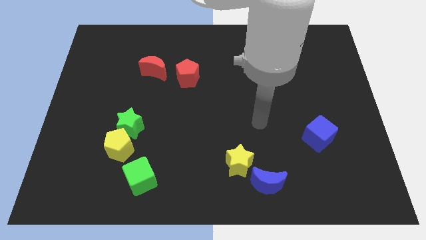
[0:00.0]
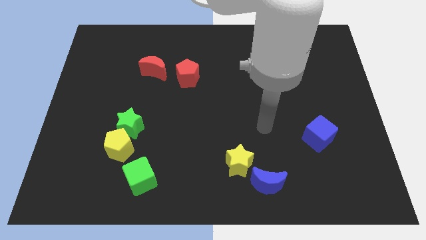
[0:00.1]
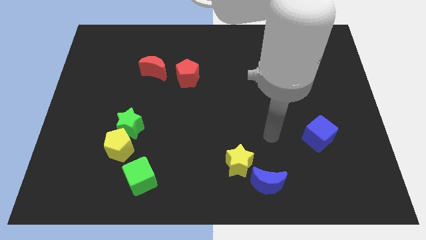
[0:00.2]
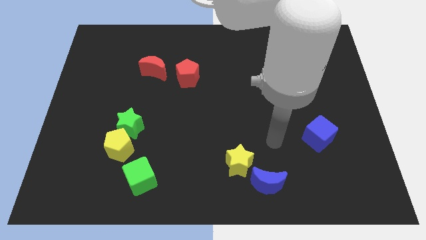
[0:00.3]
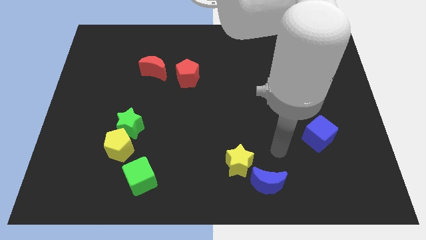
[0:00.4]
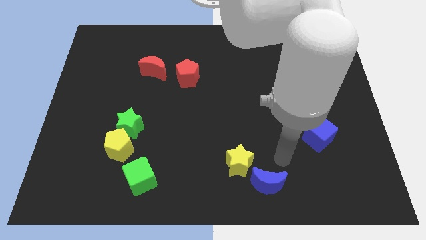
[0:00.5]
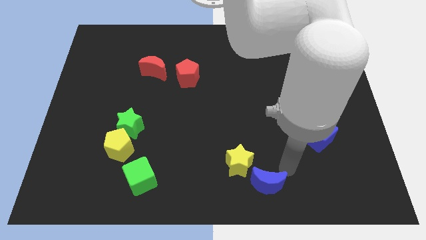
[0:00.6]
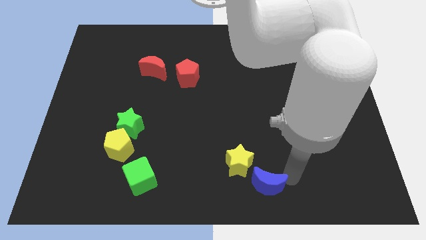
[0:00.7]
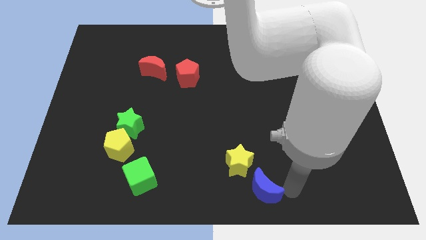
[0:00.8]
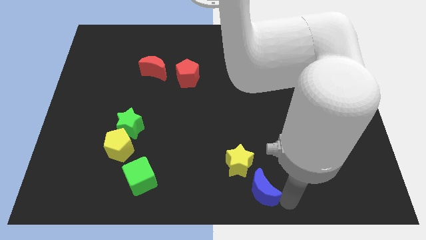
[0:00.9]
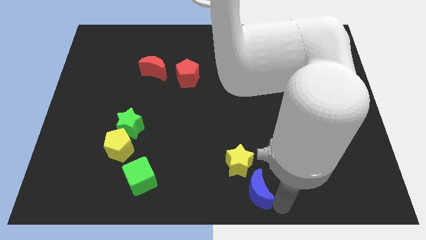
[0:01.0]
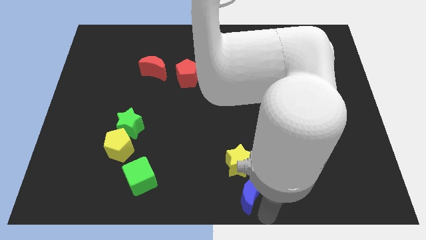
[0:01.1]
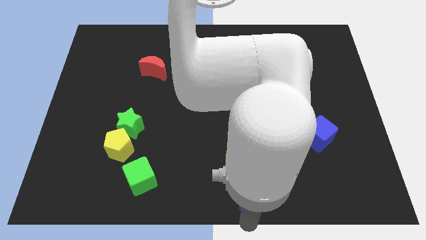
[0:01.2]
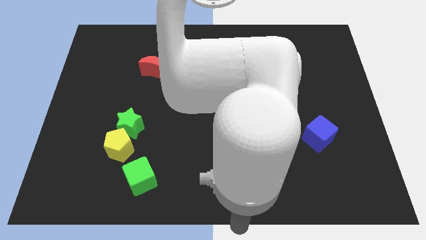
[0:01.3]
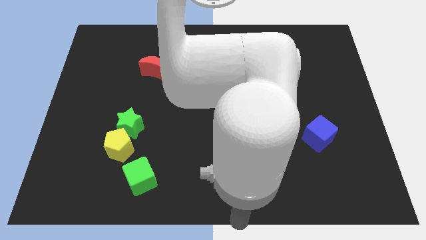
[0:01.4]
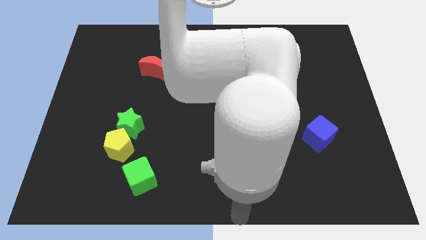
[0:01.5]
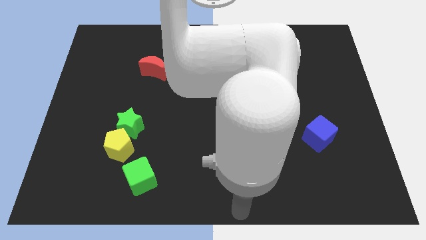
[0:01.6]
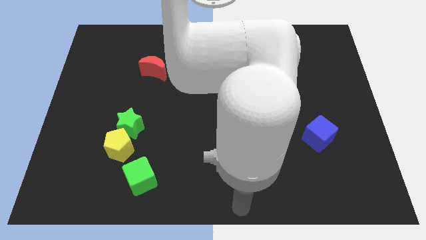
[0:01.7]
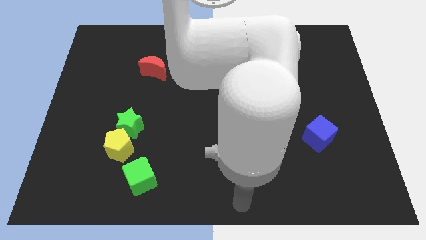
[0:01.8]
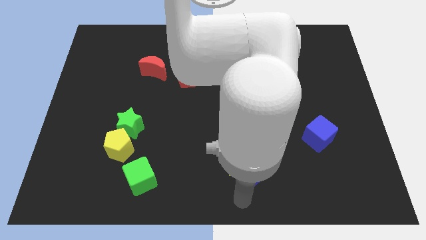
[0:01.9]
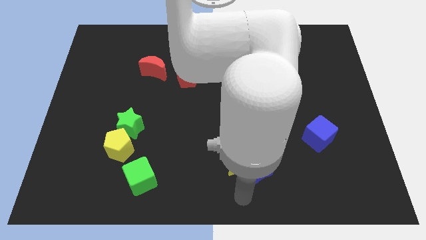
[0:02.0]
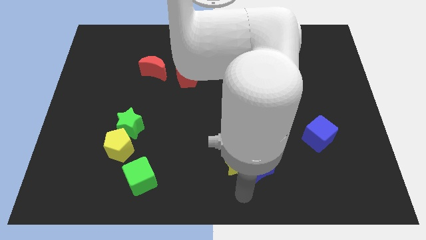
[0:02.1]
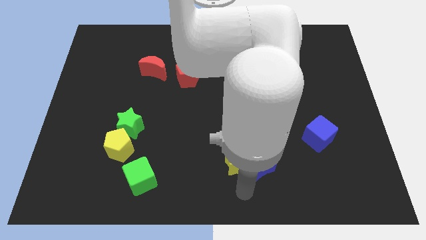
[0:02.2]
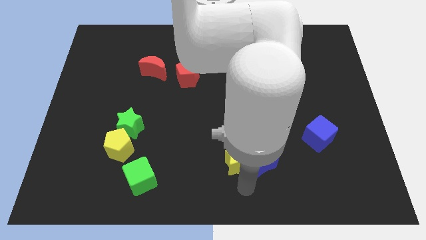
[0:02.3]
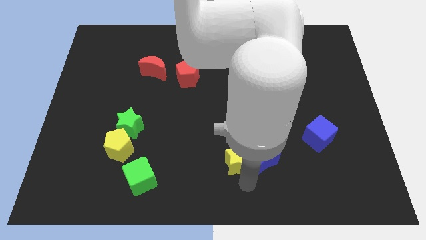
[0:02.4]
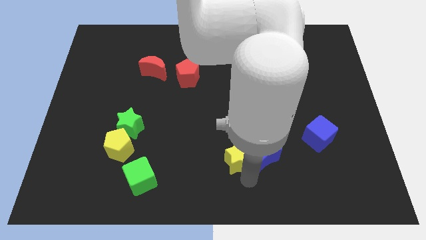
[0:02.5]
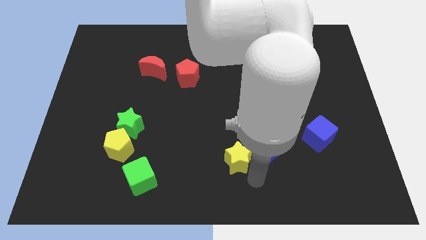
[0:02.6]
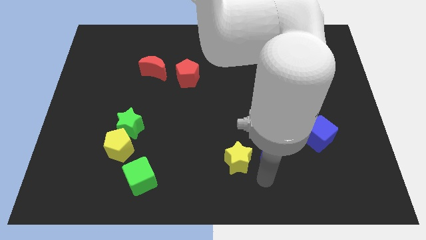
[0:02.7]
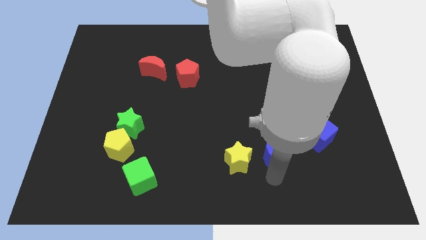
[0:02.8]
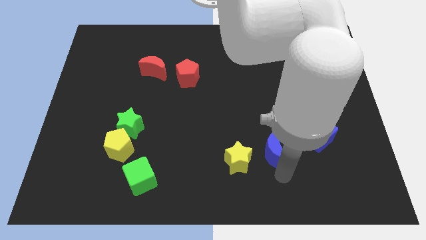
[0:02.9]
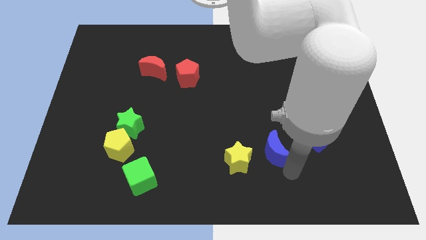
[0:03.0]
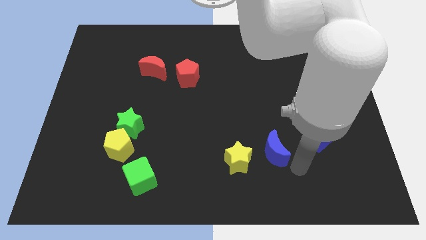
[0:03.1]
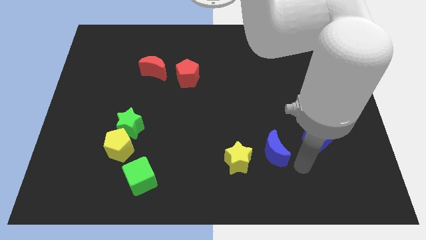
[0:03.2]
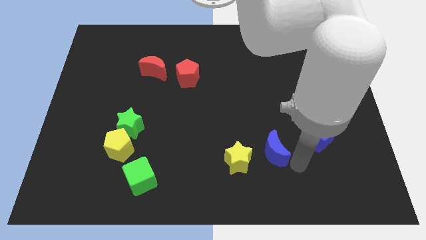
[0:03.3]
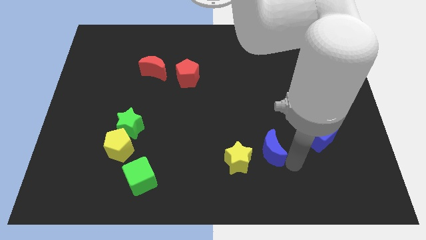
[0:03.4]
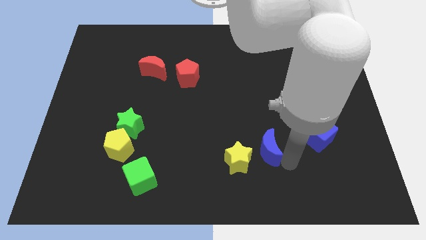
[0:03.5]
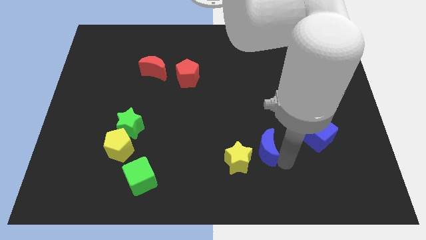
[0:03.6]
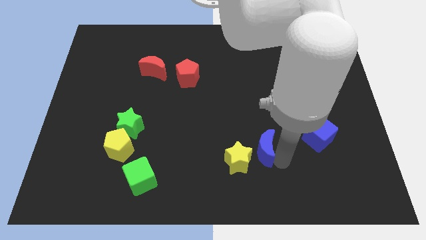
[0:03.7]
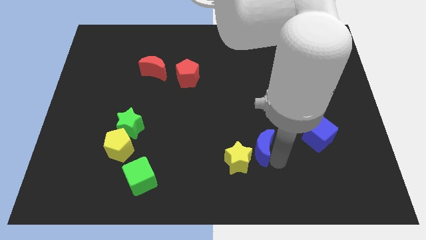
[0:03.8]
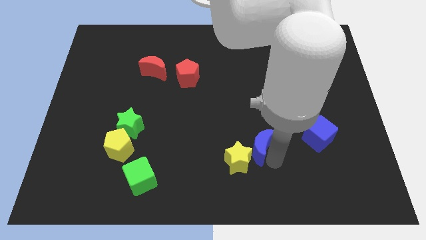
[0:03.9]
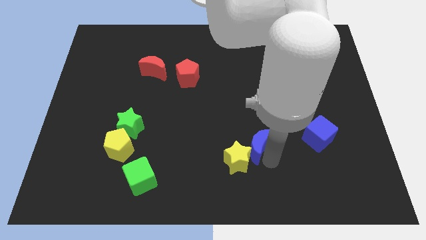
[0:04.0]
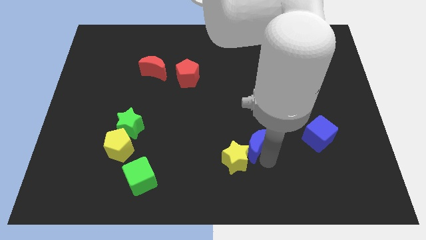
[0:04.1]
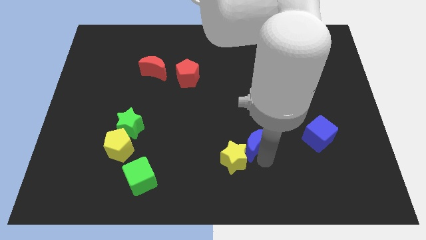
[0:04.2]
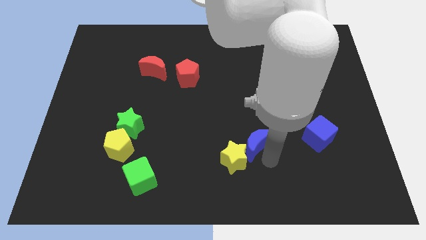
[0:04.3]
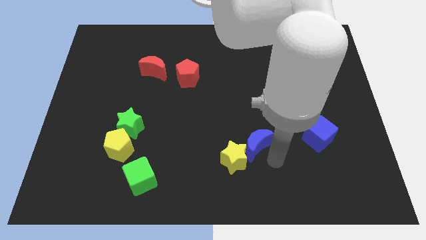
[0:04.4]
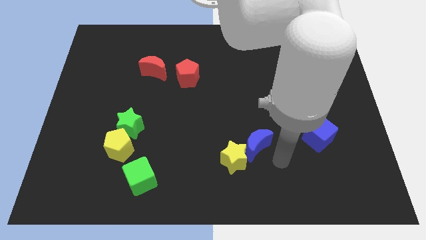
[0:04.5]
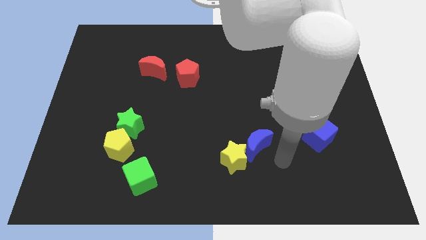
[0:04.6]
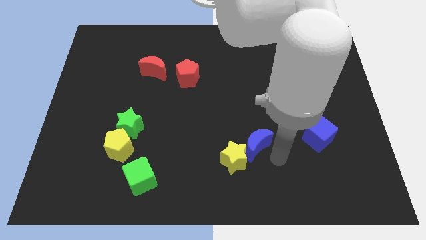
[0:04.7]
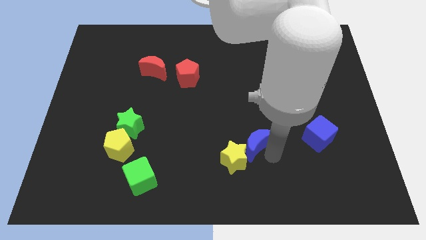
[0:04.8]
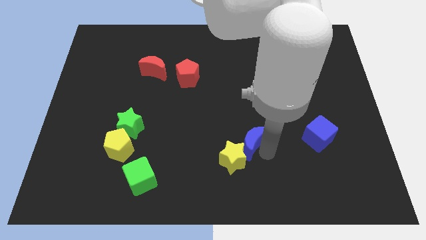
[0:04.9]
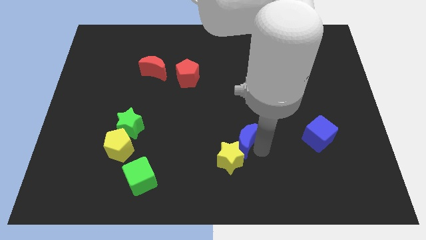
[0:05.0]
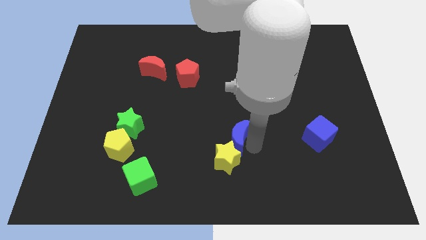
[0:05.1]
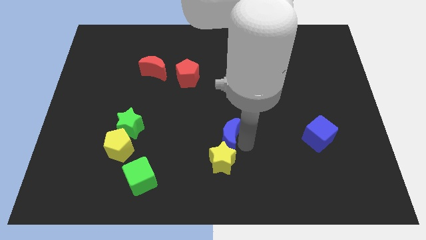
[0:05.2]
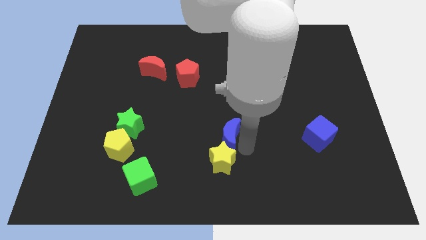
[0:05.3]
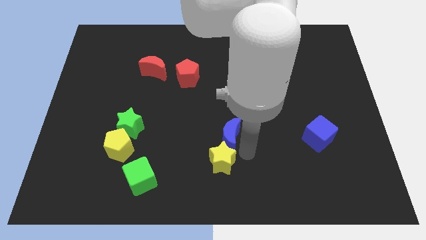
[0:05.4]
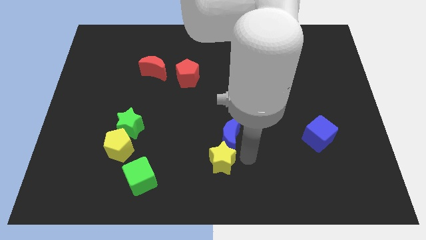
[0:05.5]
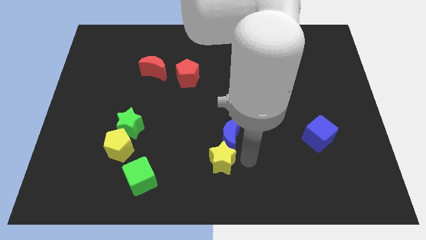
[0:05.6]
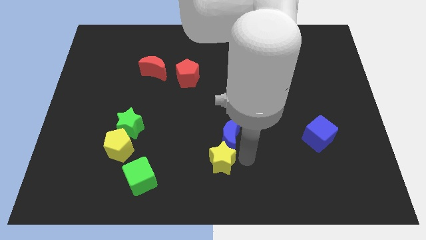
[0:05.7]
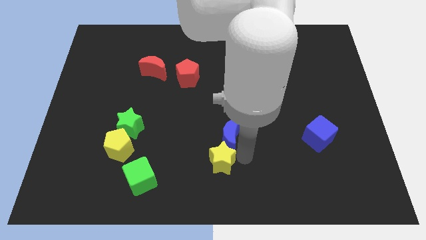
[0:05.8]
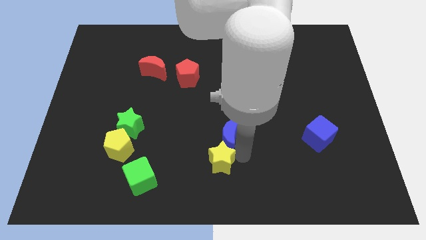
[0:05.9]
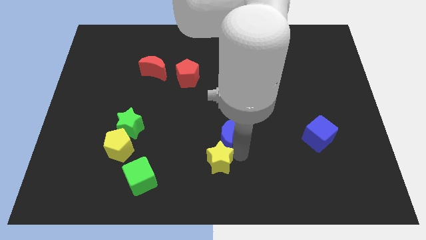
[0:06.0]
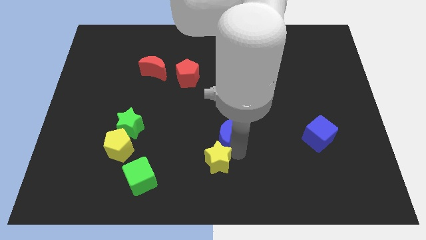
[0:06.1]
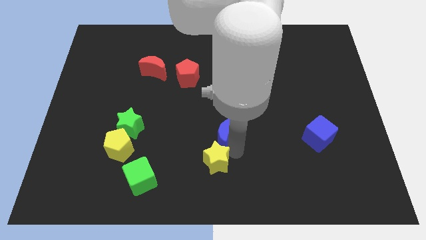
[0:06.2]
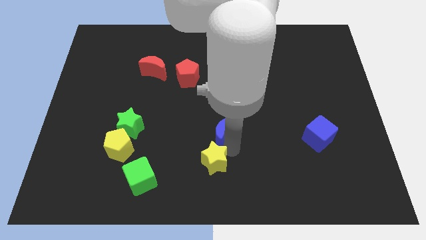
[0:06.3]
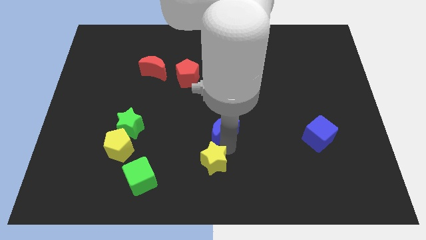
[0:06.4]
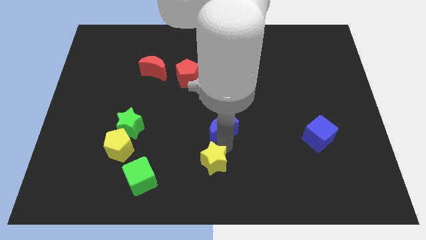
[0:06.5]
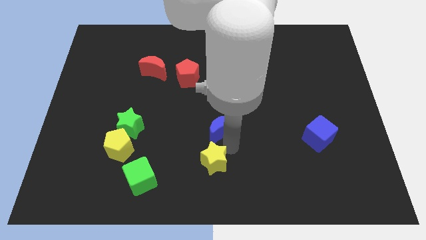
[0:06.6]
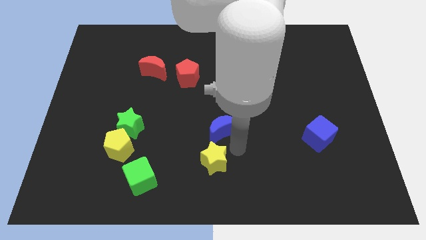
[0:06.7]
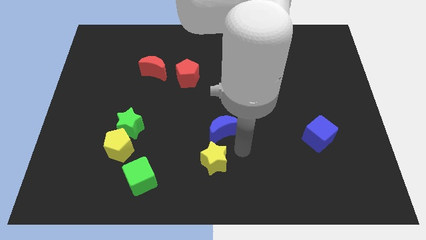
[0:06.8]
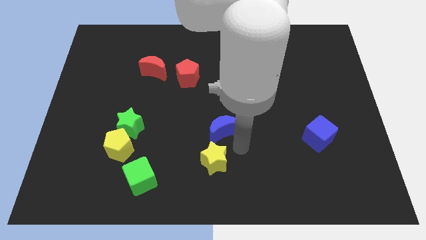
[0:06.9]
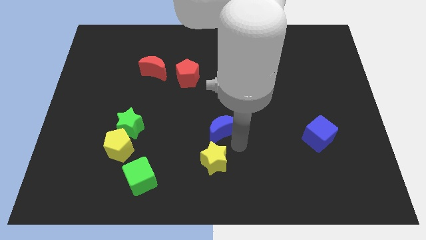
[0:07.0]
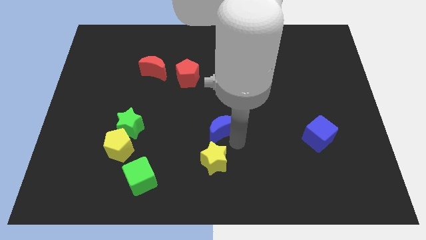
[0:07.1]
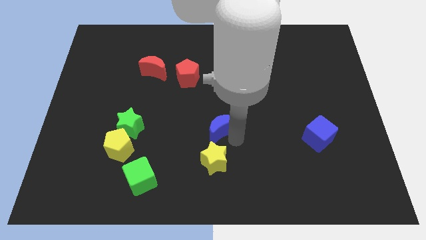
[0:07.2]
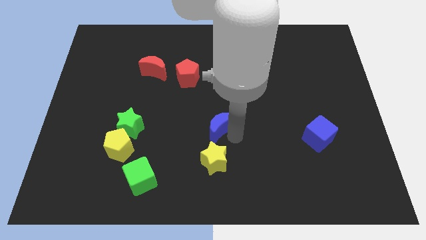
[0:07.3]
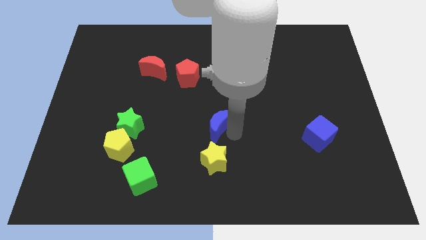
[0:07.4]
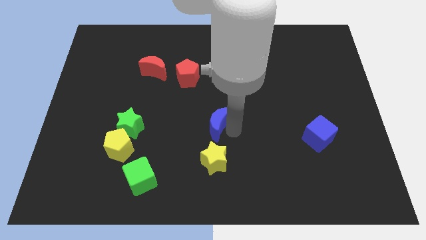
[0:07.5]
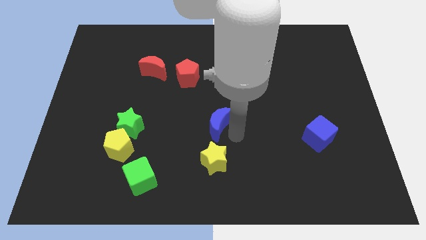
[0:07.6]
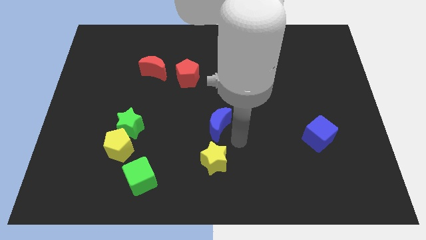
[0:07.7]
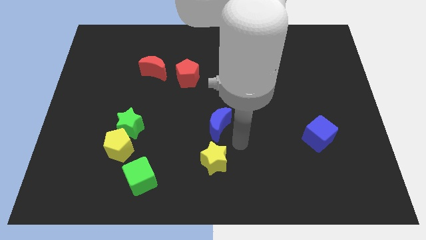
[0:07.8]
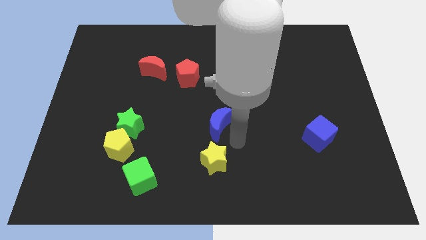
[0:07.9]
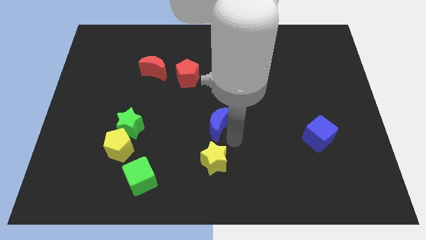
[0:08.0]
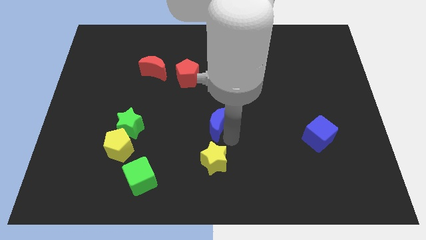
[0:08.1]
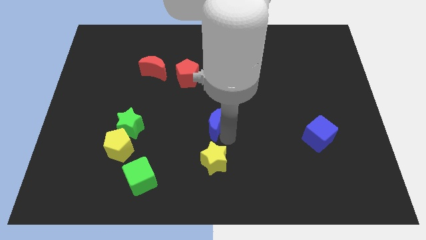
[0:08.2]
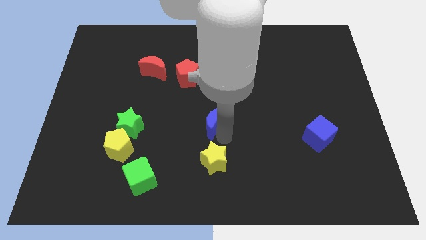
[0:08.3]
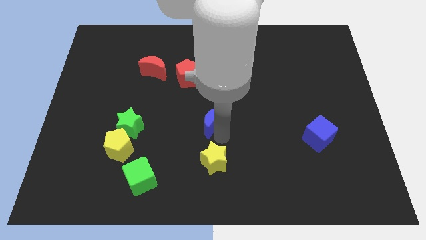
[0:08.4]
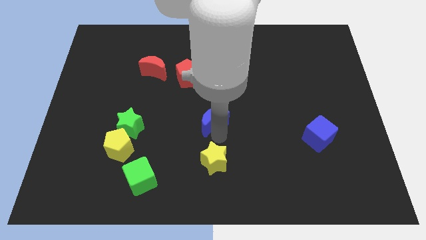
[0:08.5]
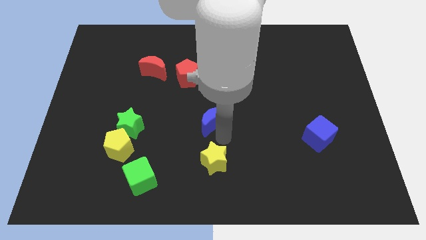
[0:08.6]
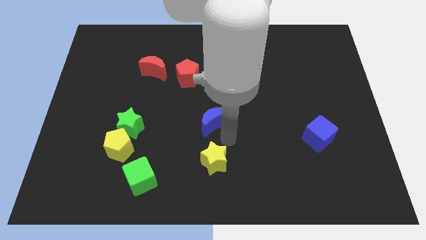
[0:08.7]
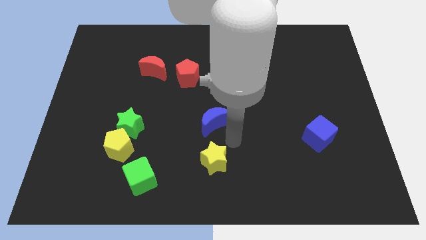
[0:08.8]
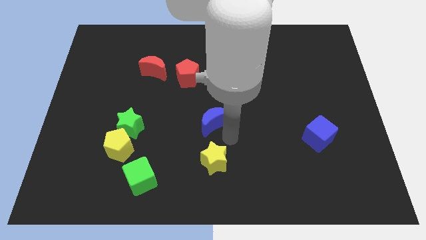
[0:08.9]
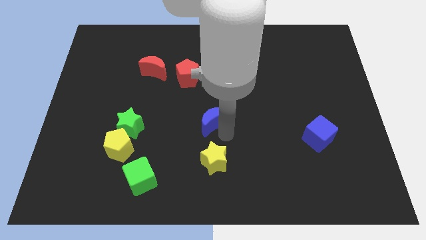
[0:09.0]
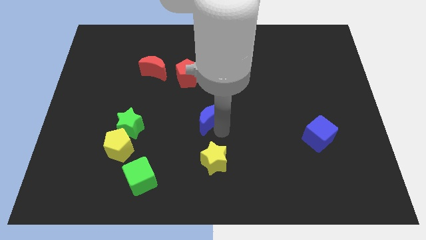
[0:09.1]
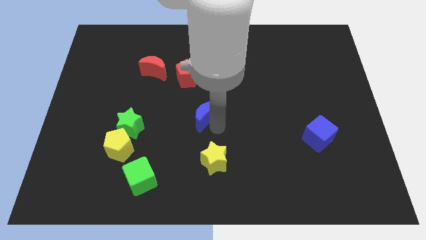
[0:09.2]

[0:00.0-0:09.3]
push the blue moon diagonally up and to the left
